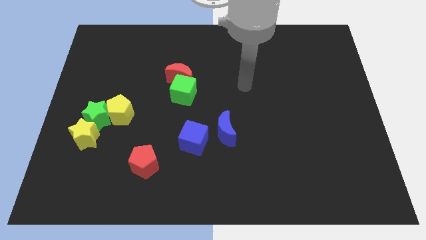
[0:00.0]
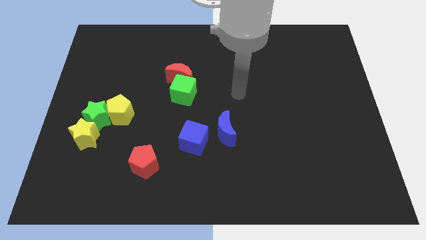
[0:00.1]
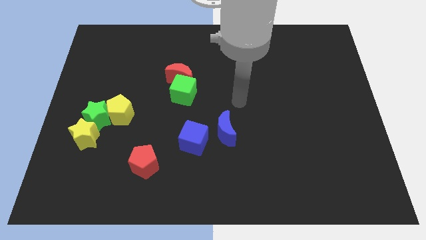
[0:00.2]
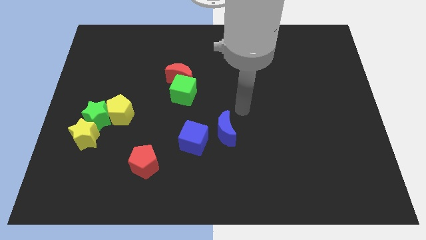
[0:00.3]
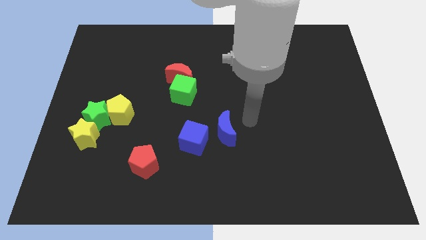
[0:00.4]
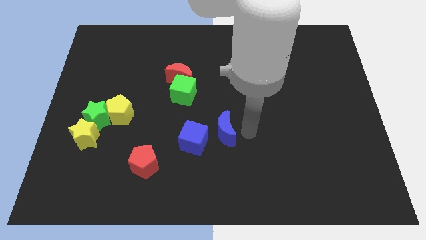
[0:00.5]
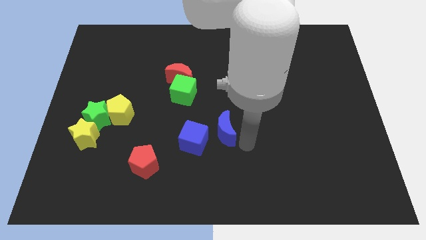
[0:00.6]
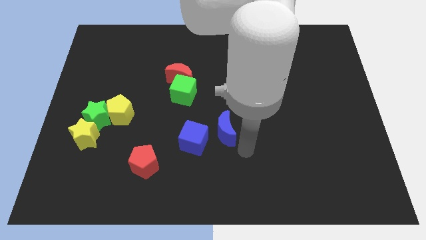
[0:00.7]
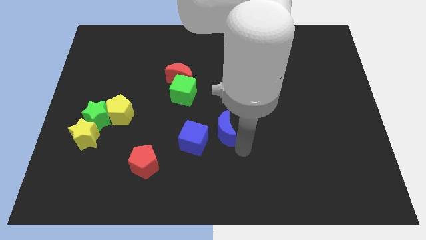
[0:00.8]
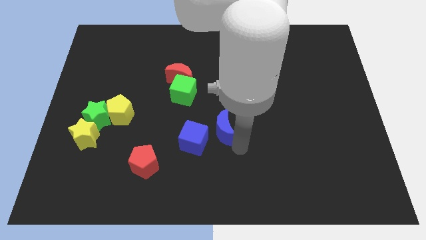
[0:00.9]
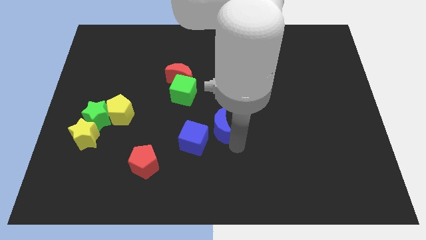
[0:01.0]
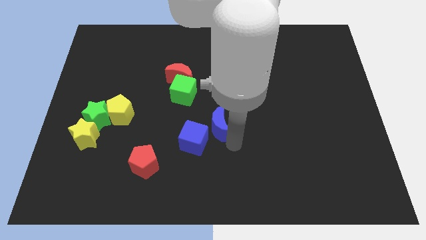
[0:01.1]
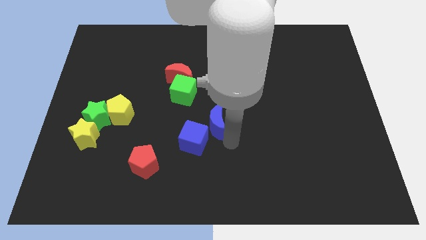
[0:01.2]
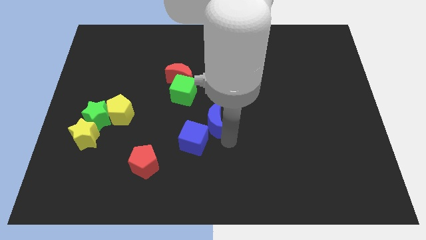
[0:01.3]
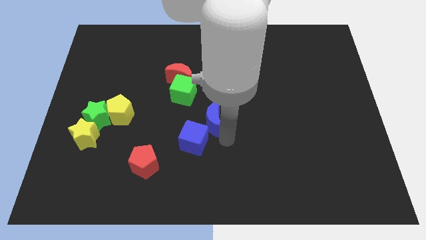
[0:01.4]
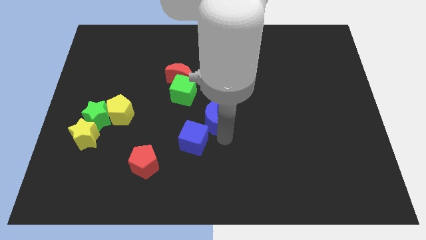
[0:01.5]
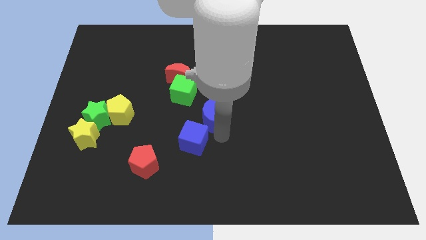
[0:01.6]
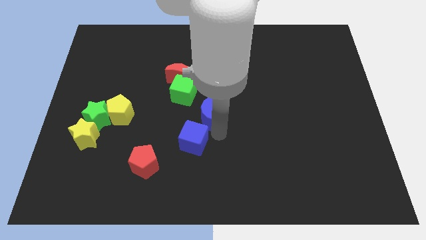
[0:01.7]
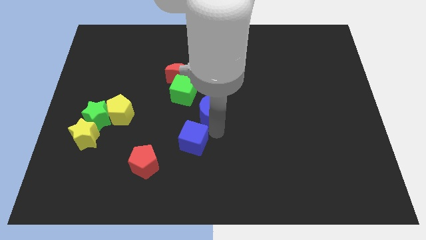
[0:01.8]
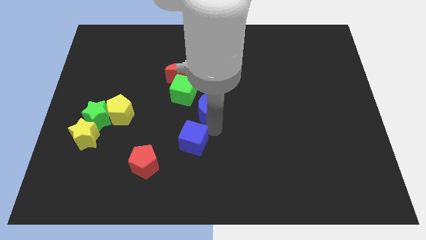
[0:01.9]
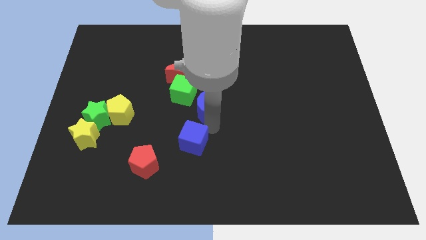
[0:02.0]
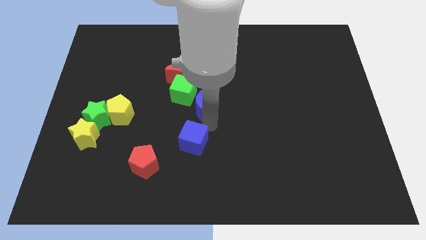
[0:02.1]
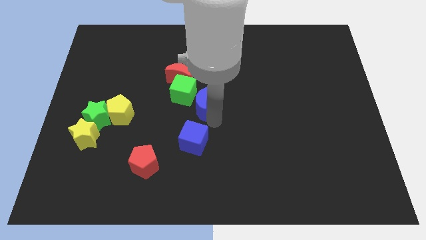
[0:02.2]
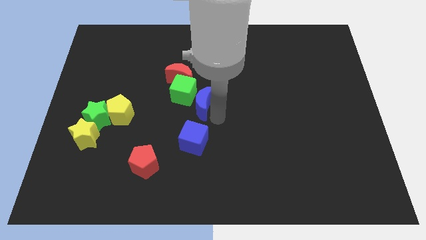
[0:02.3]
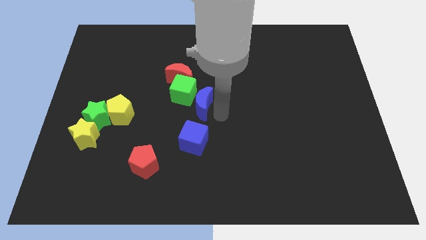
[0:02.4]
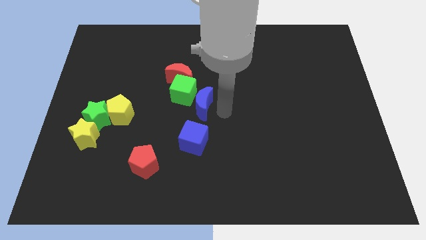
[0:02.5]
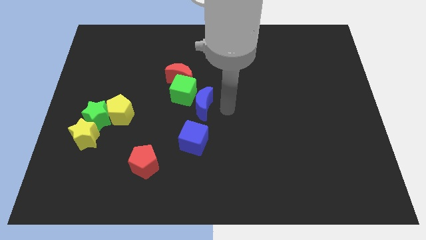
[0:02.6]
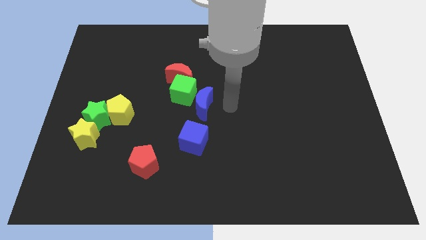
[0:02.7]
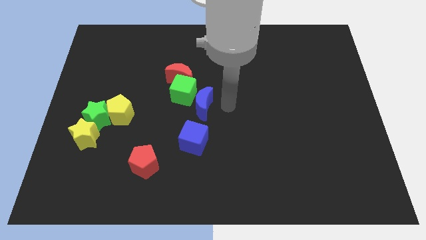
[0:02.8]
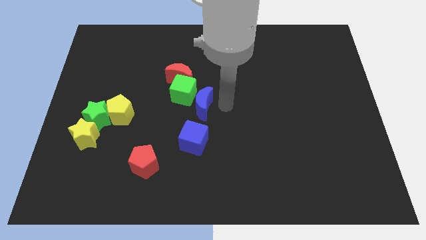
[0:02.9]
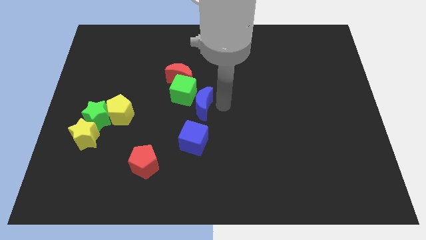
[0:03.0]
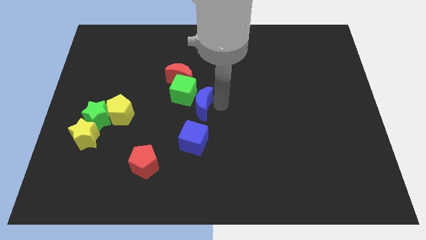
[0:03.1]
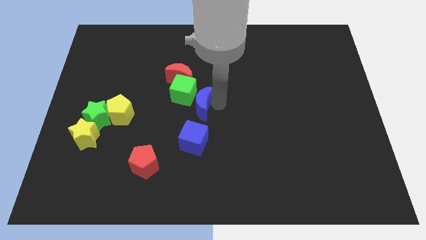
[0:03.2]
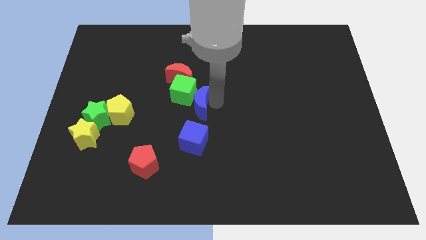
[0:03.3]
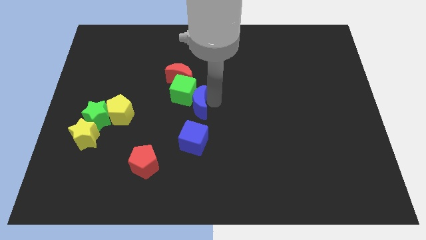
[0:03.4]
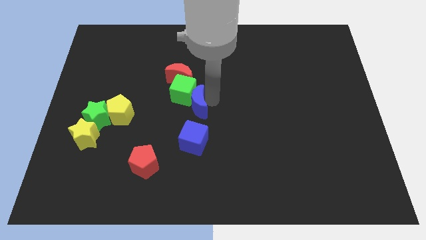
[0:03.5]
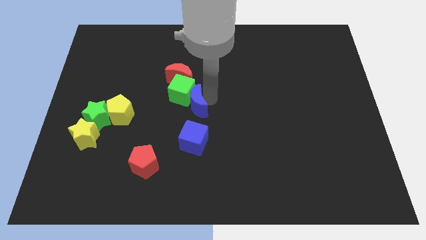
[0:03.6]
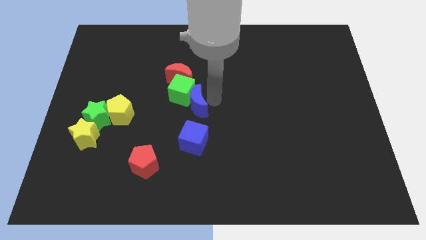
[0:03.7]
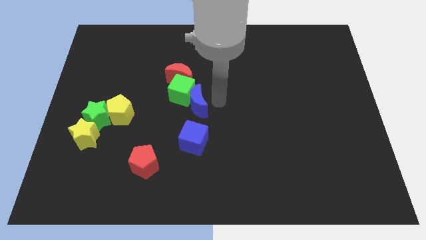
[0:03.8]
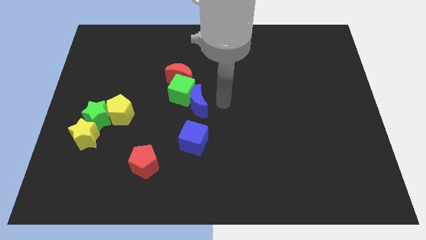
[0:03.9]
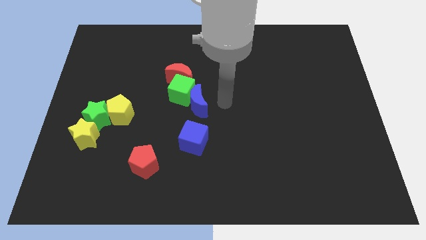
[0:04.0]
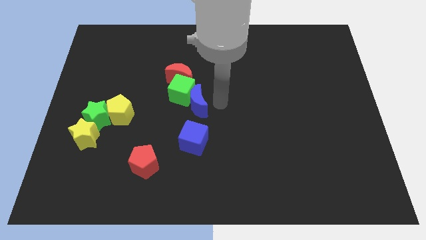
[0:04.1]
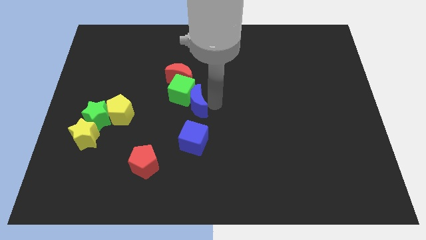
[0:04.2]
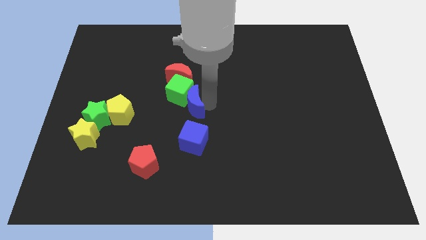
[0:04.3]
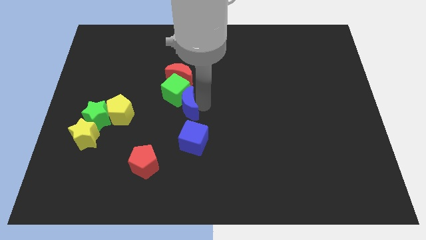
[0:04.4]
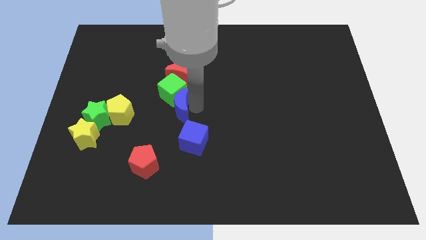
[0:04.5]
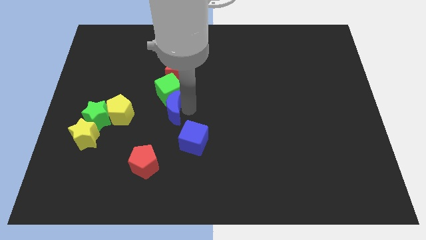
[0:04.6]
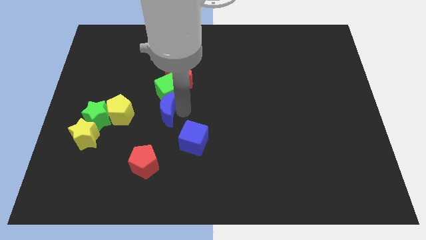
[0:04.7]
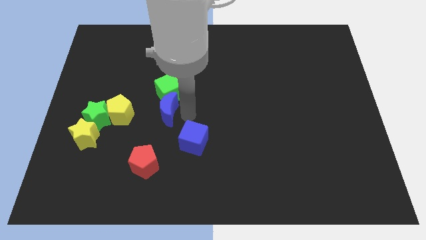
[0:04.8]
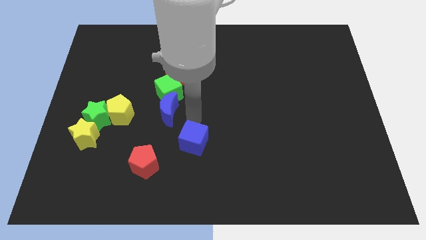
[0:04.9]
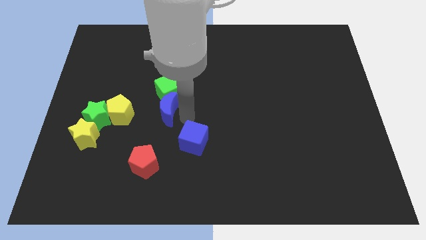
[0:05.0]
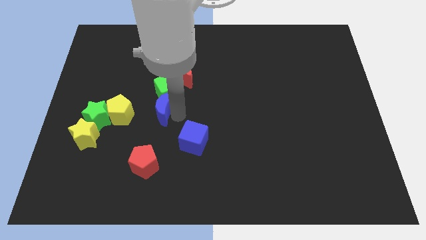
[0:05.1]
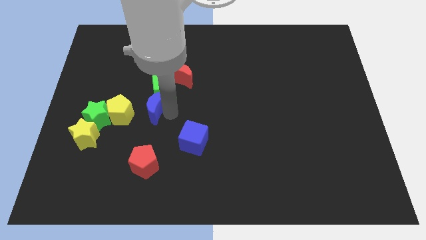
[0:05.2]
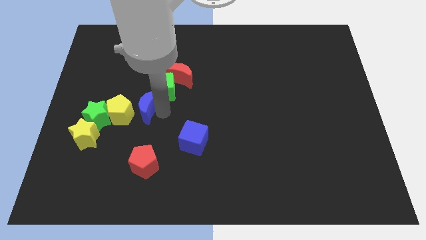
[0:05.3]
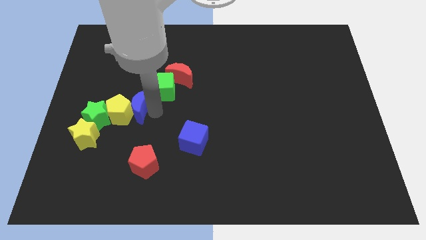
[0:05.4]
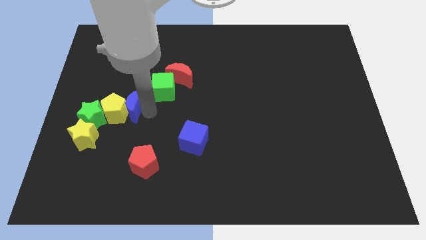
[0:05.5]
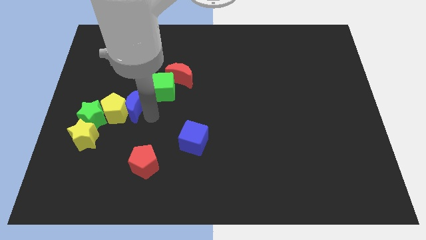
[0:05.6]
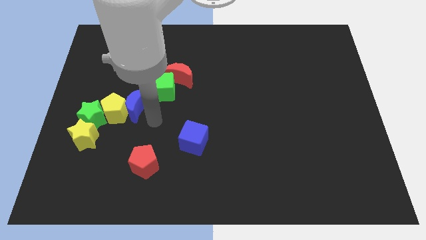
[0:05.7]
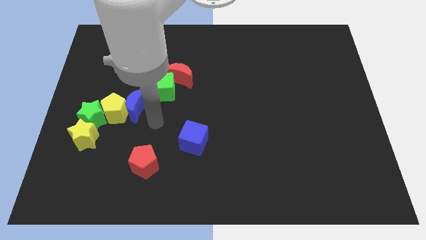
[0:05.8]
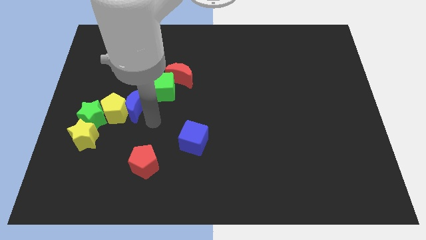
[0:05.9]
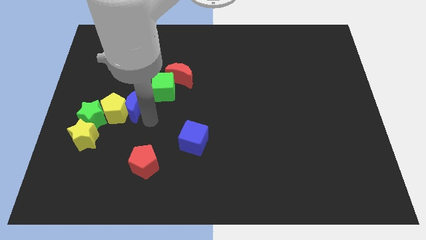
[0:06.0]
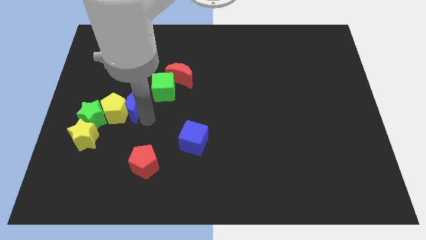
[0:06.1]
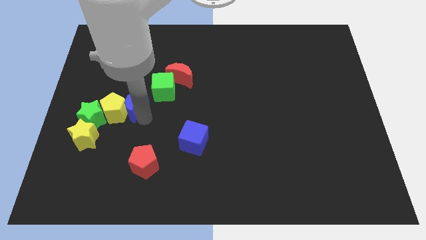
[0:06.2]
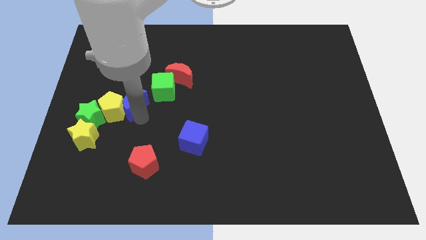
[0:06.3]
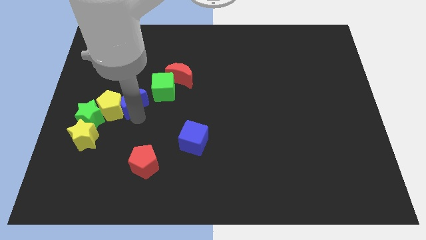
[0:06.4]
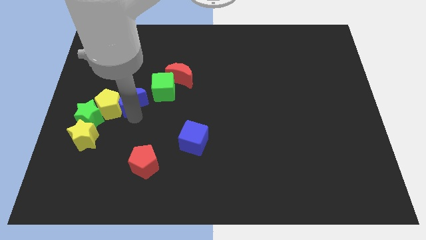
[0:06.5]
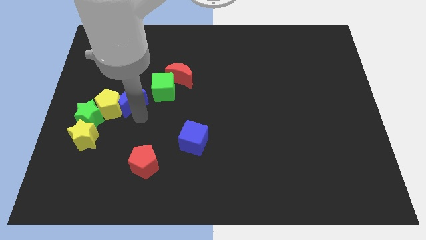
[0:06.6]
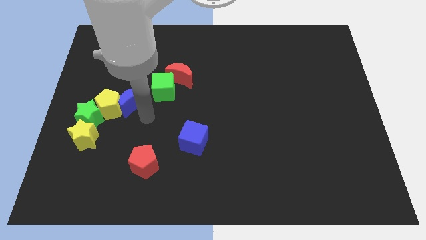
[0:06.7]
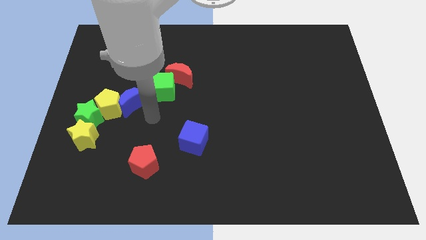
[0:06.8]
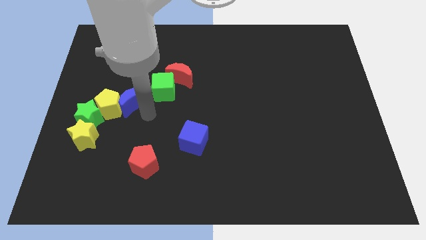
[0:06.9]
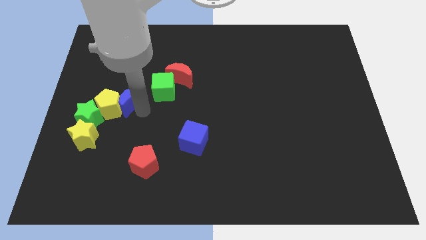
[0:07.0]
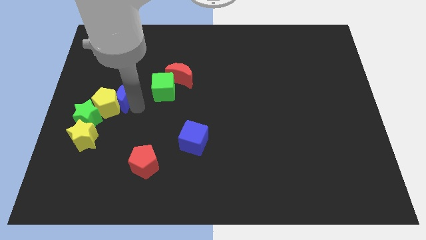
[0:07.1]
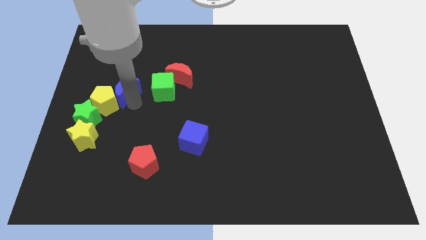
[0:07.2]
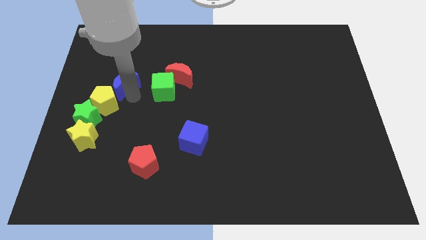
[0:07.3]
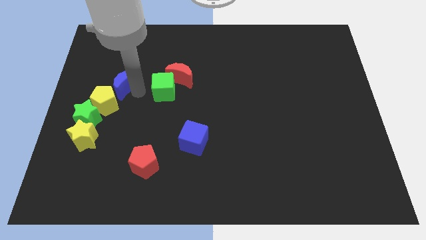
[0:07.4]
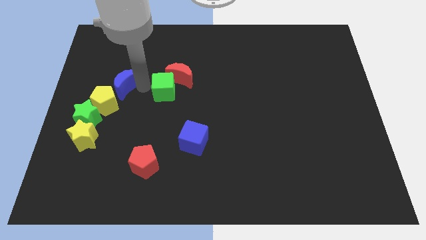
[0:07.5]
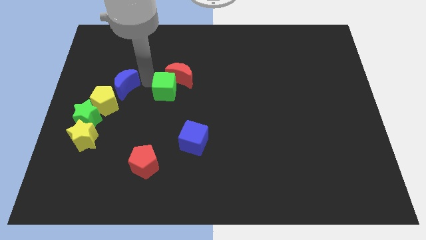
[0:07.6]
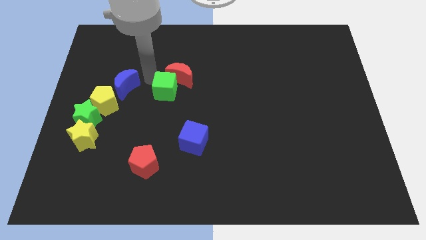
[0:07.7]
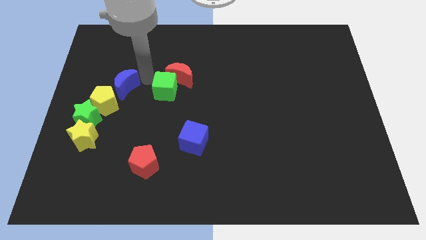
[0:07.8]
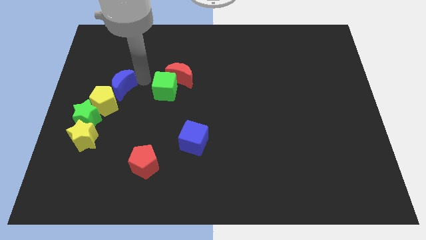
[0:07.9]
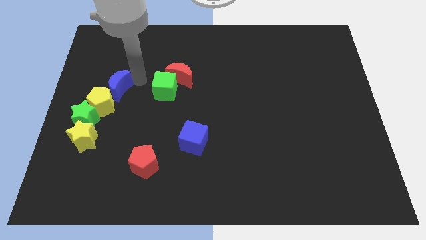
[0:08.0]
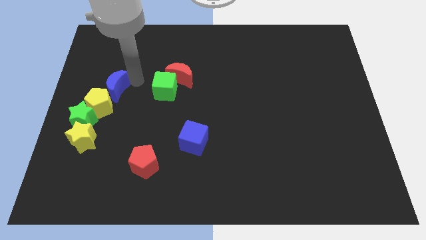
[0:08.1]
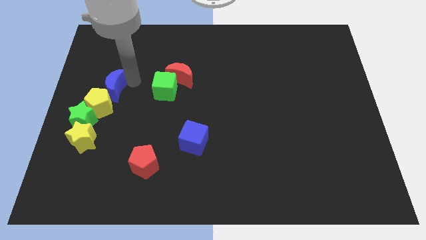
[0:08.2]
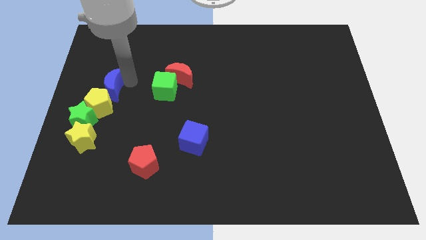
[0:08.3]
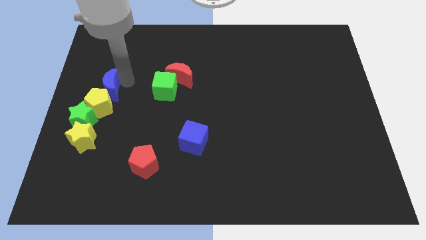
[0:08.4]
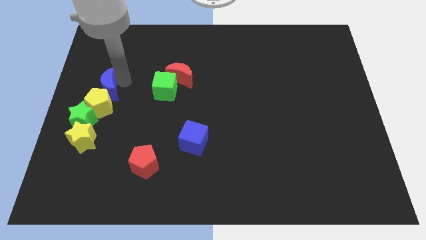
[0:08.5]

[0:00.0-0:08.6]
push the blue moon to the left side
